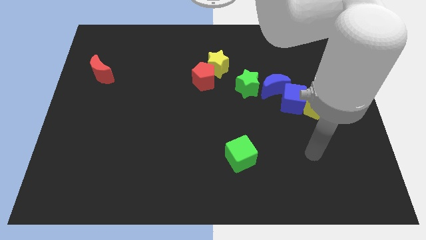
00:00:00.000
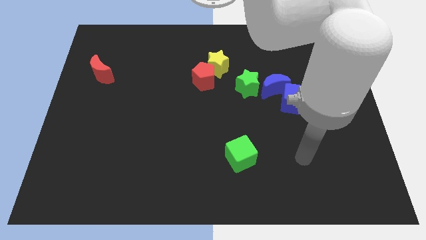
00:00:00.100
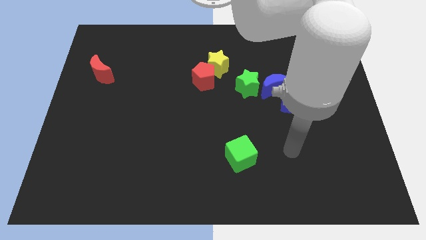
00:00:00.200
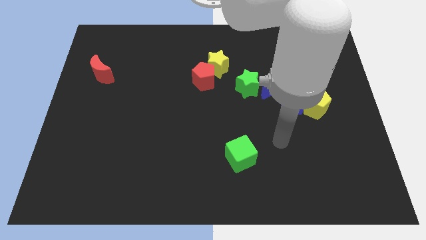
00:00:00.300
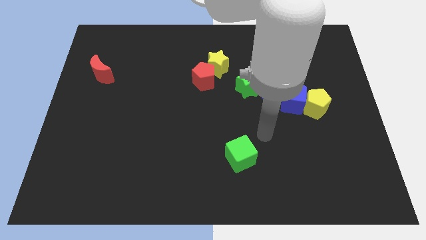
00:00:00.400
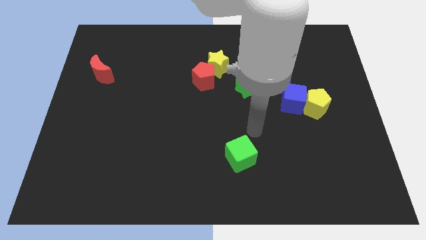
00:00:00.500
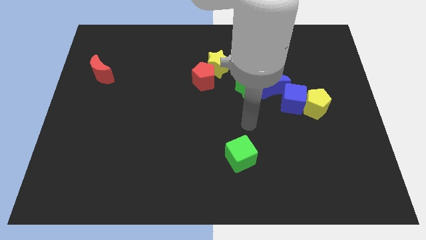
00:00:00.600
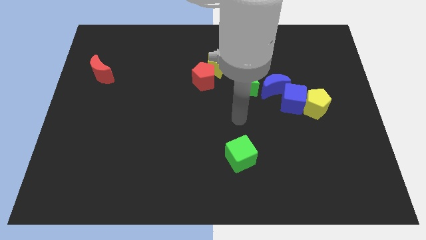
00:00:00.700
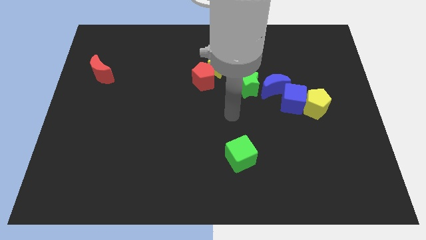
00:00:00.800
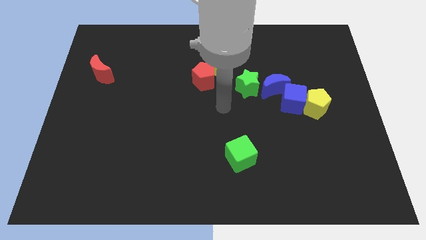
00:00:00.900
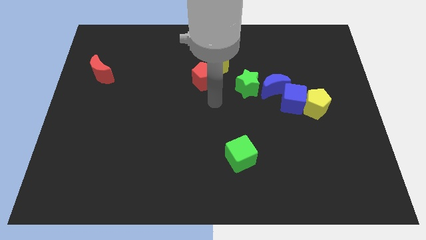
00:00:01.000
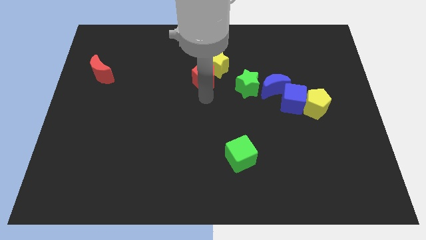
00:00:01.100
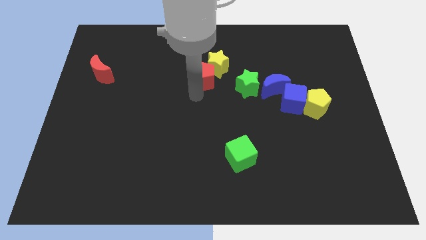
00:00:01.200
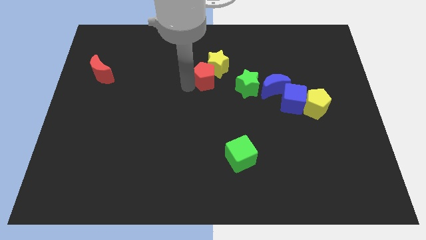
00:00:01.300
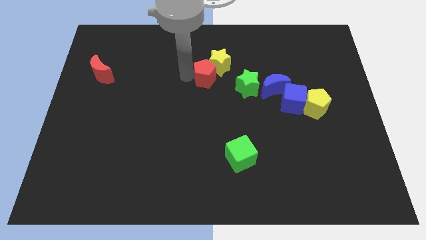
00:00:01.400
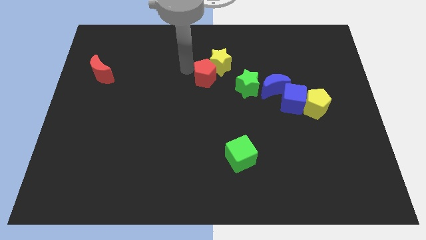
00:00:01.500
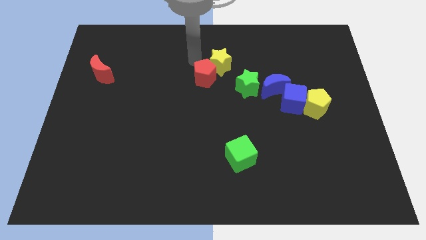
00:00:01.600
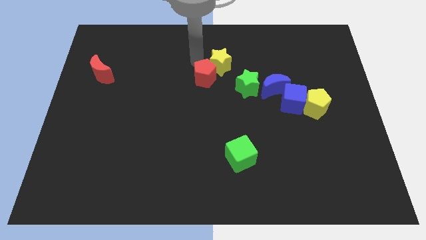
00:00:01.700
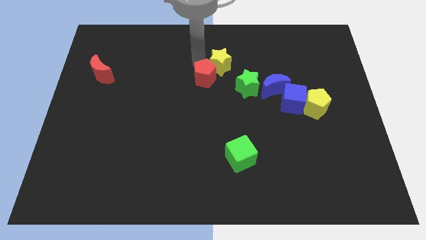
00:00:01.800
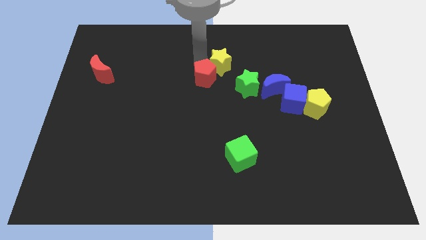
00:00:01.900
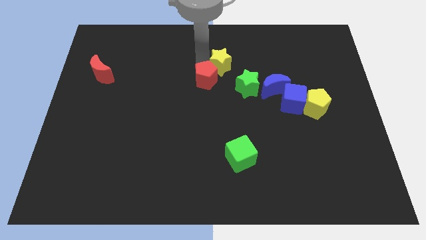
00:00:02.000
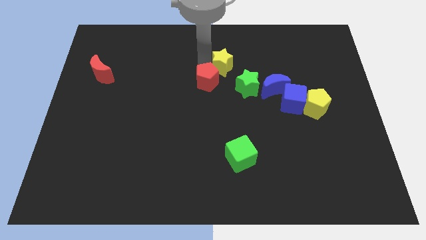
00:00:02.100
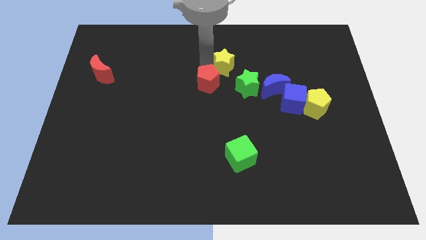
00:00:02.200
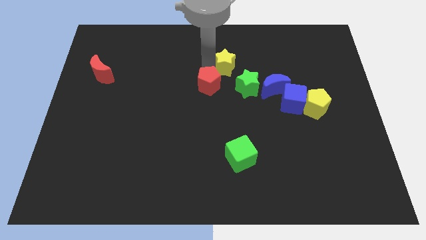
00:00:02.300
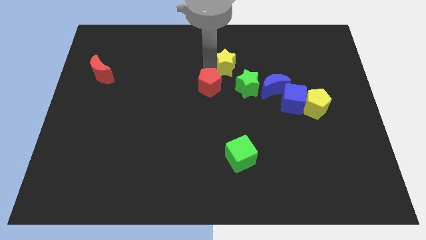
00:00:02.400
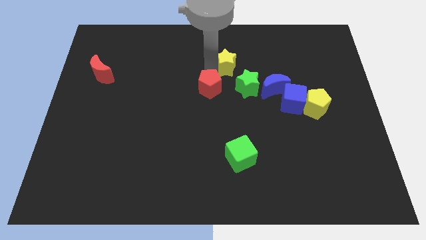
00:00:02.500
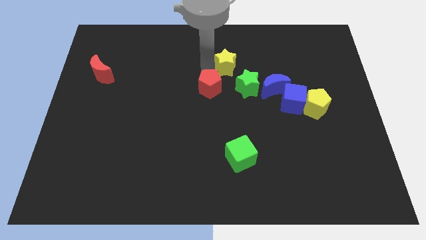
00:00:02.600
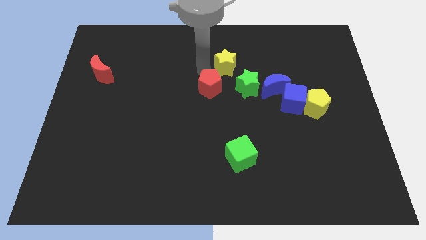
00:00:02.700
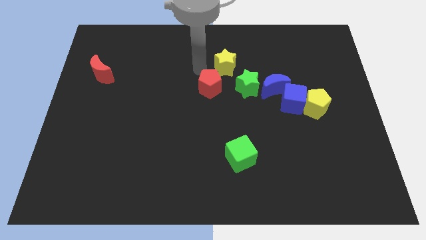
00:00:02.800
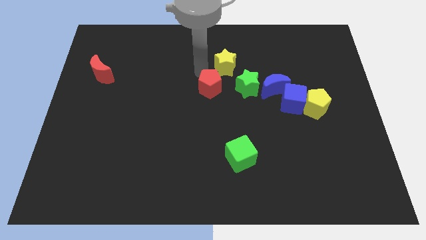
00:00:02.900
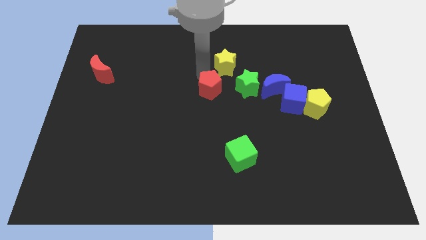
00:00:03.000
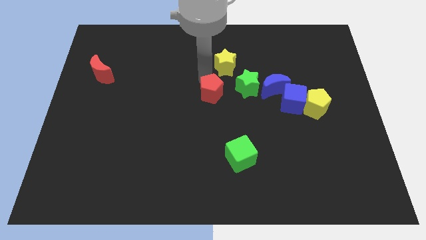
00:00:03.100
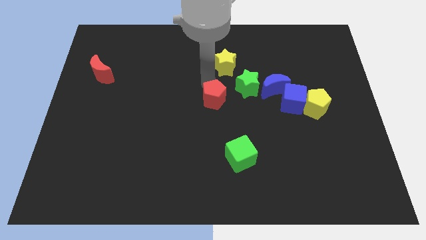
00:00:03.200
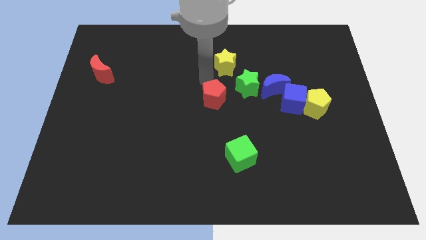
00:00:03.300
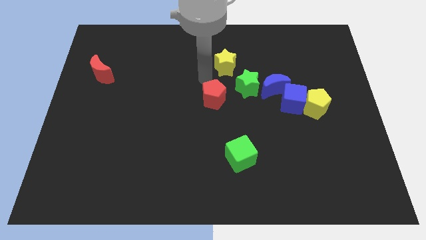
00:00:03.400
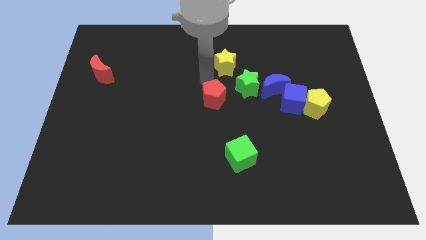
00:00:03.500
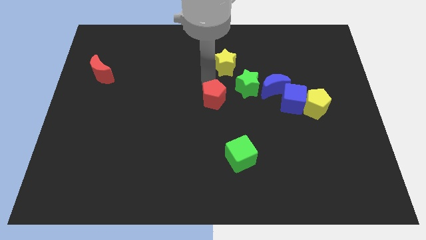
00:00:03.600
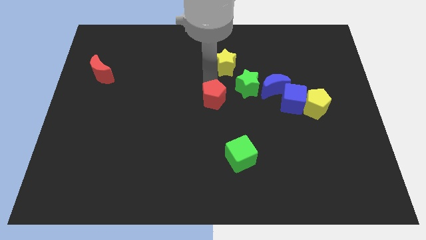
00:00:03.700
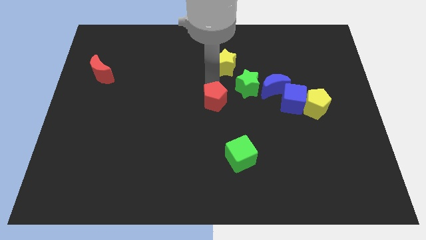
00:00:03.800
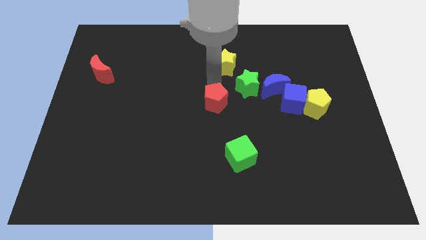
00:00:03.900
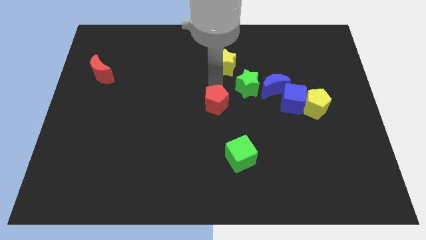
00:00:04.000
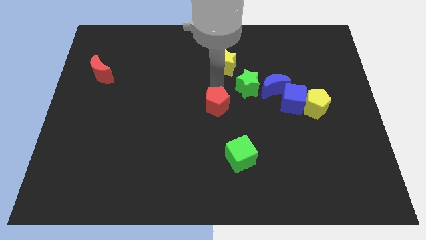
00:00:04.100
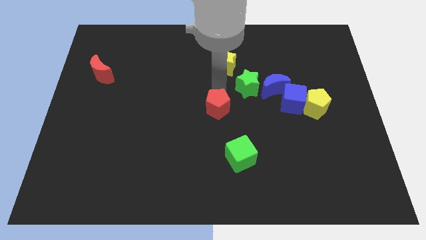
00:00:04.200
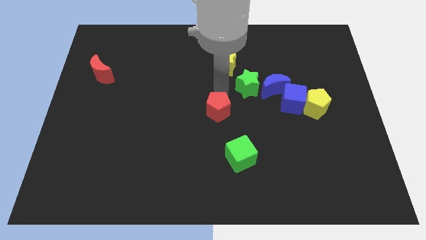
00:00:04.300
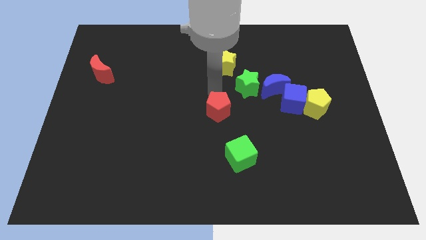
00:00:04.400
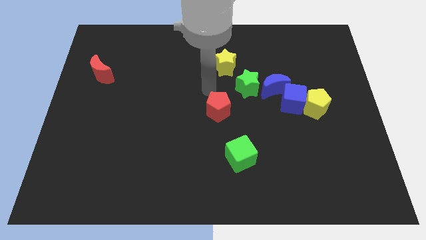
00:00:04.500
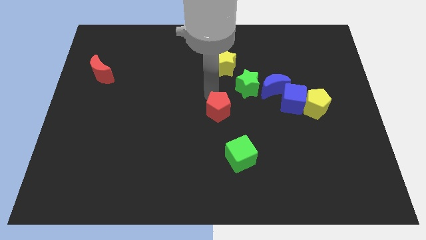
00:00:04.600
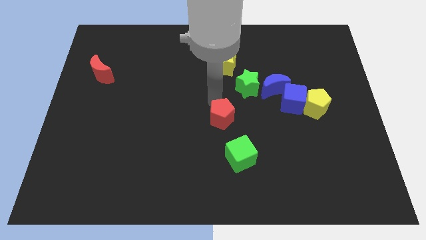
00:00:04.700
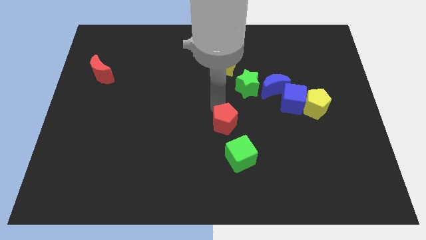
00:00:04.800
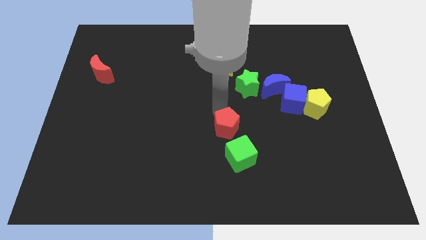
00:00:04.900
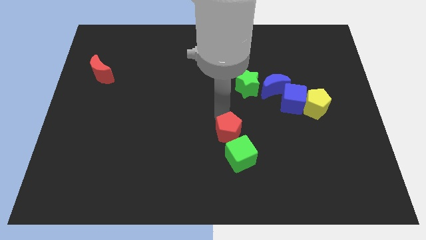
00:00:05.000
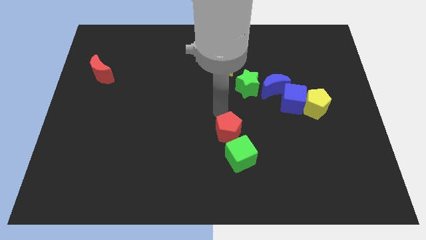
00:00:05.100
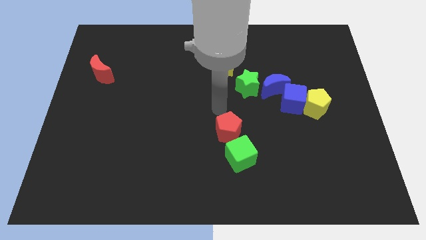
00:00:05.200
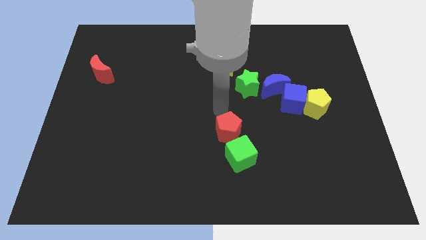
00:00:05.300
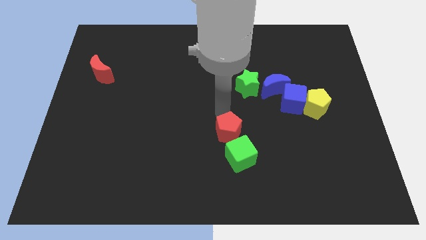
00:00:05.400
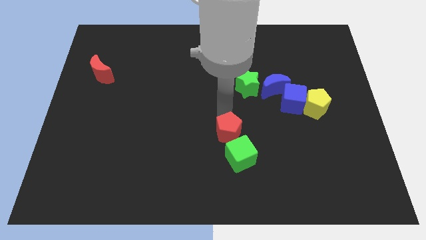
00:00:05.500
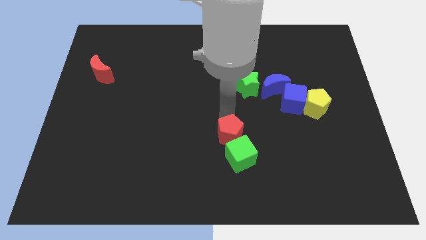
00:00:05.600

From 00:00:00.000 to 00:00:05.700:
move the red pentagon next to the green cube

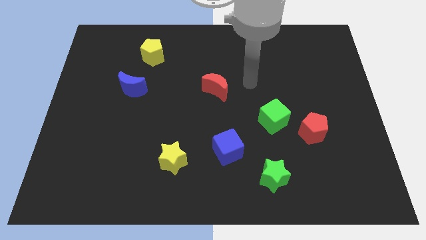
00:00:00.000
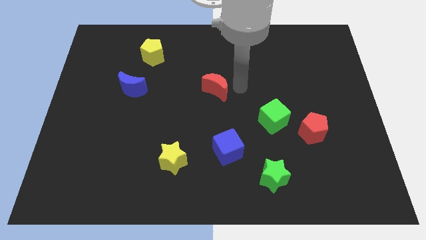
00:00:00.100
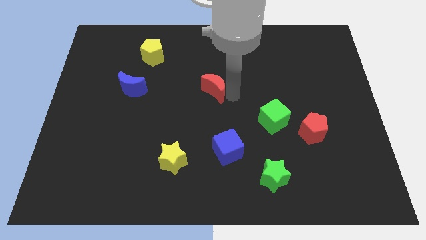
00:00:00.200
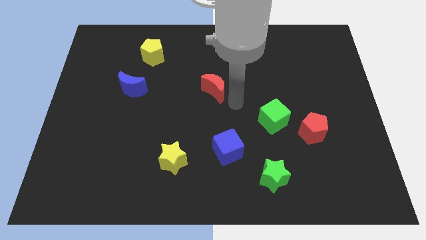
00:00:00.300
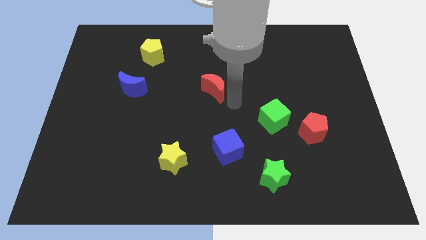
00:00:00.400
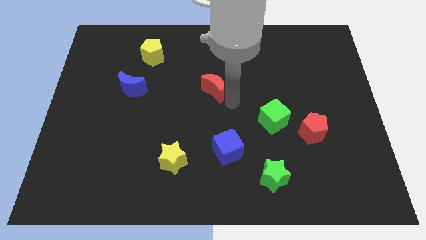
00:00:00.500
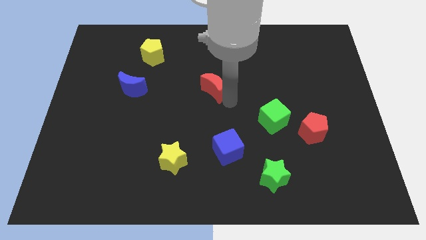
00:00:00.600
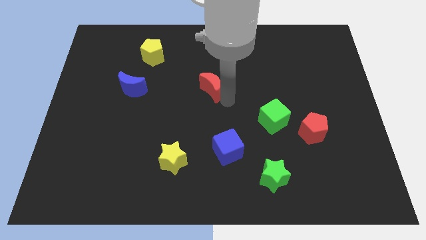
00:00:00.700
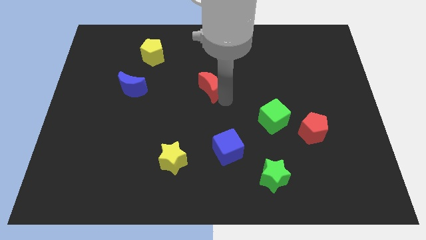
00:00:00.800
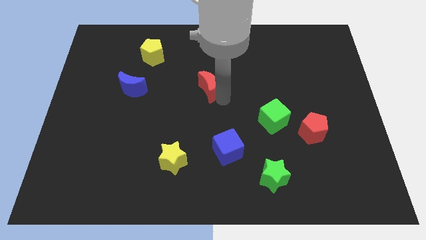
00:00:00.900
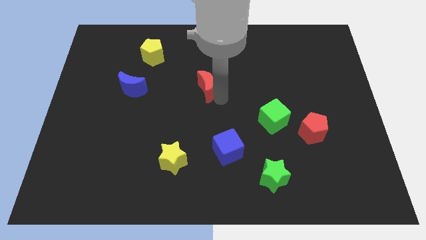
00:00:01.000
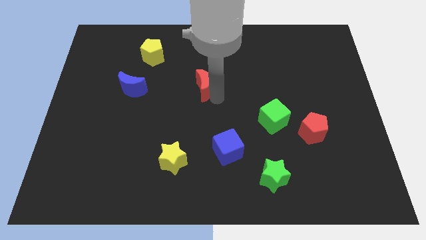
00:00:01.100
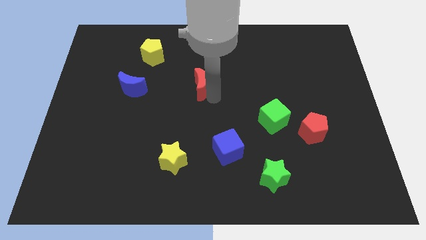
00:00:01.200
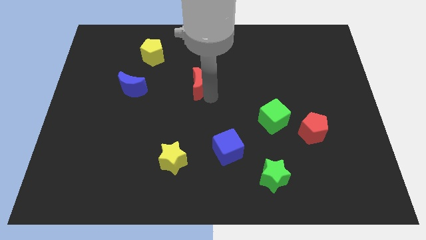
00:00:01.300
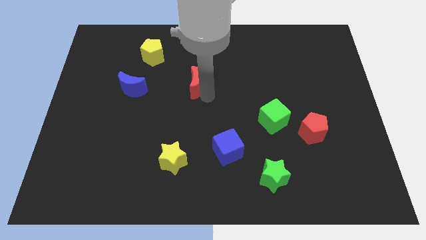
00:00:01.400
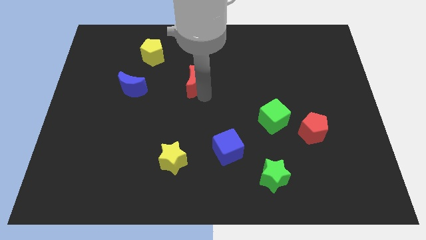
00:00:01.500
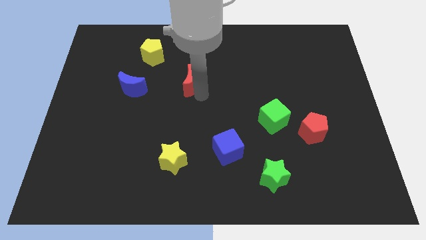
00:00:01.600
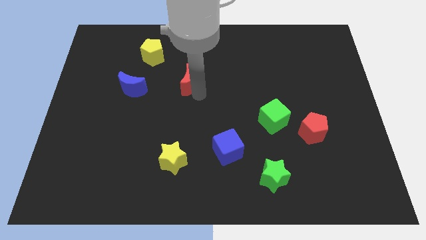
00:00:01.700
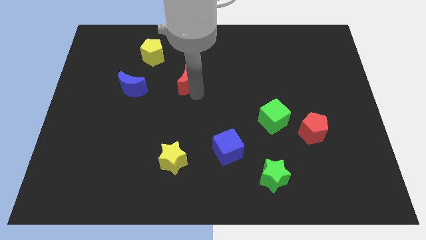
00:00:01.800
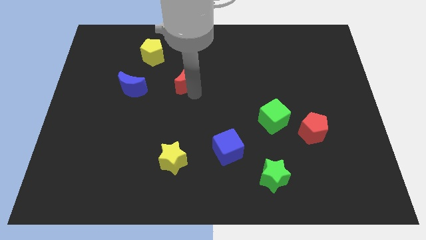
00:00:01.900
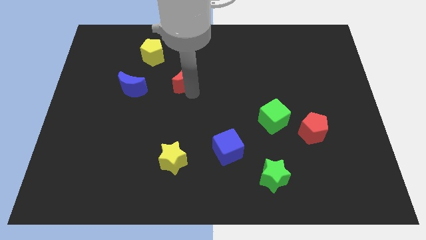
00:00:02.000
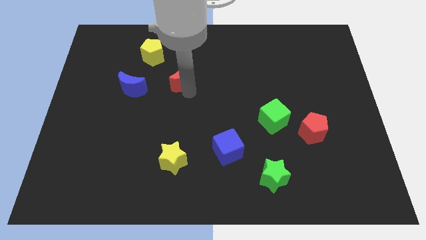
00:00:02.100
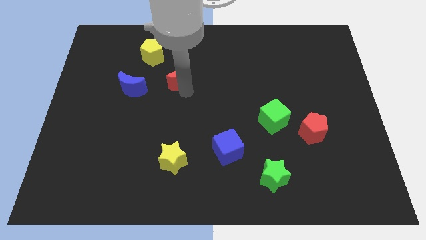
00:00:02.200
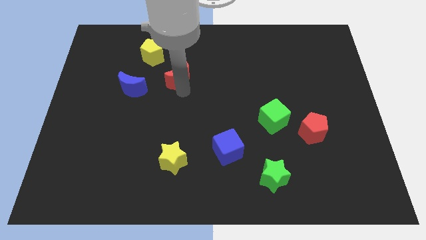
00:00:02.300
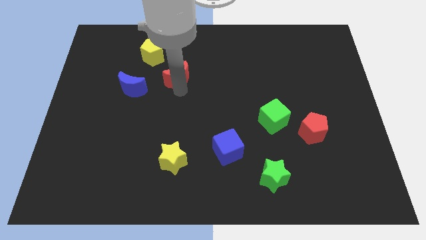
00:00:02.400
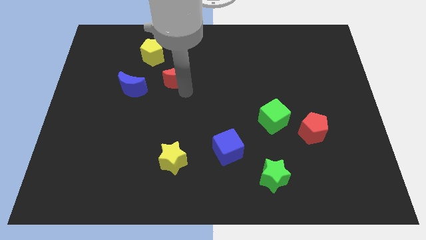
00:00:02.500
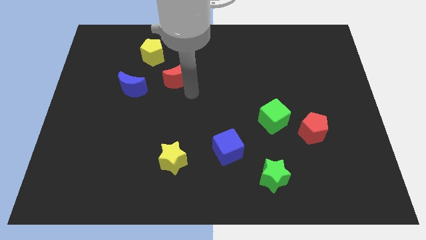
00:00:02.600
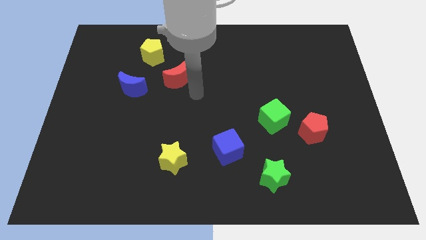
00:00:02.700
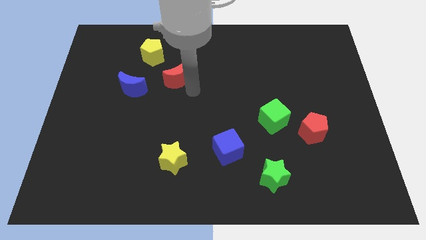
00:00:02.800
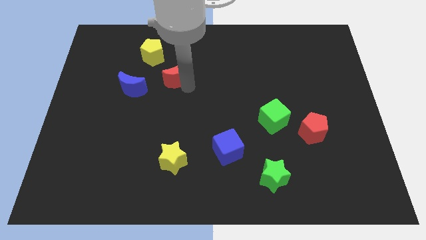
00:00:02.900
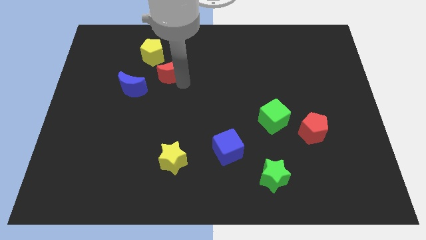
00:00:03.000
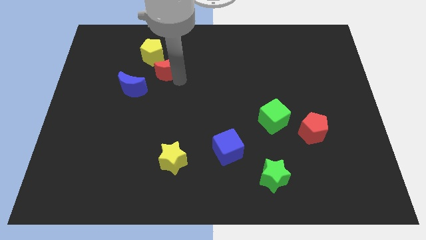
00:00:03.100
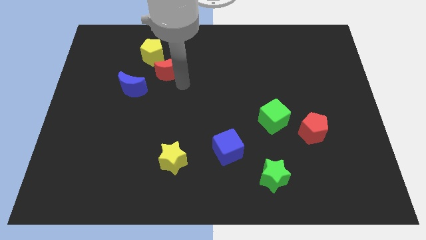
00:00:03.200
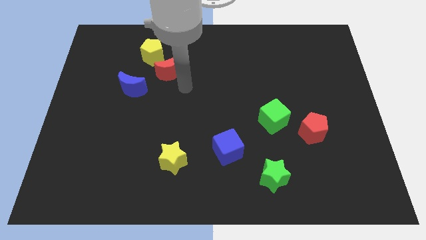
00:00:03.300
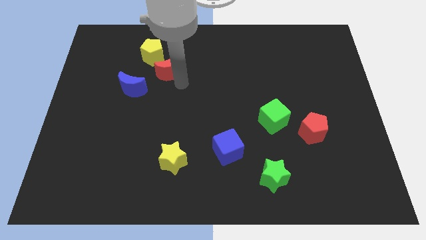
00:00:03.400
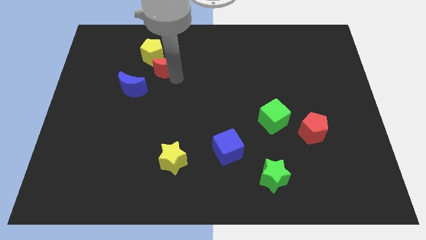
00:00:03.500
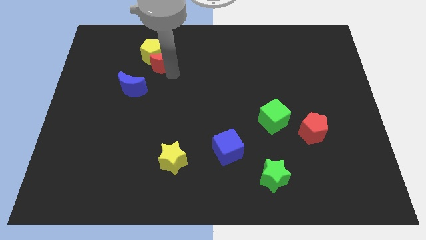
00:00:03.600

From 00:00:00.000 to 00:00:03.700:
push the red moon close to the yellow pentagon
